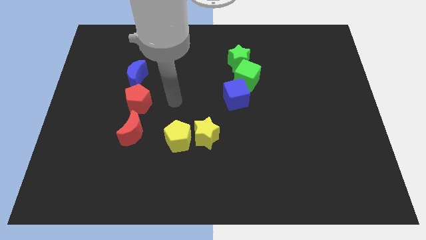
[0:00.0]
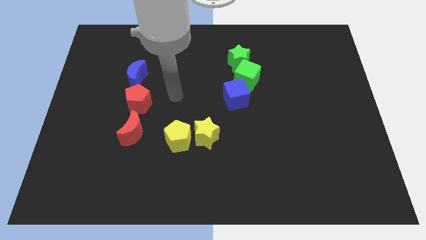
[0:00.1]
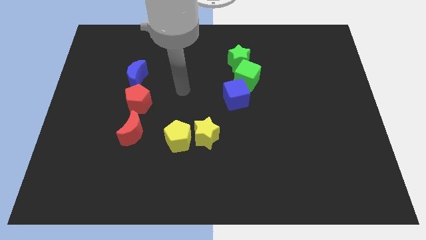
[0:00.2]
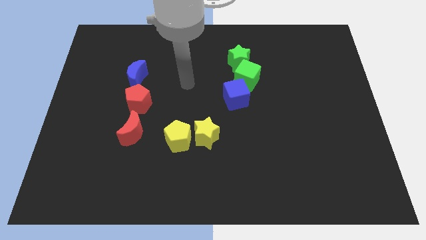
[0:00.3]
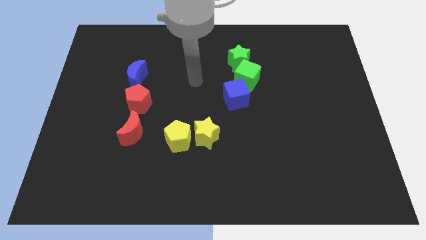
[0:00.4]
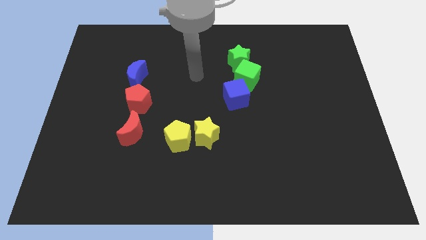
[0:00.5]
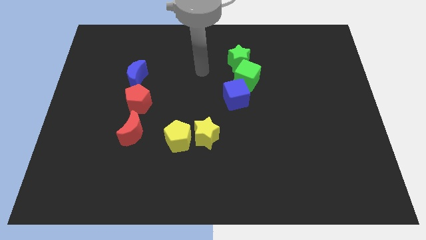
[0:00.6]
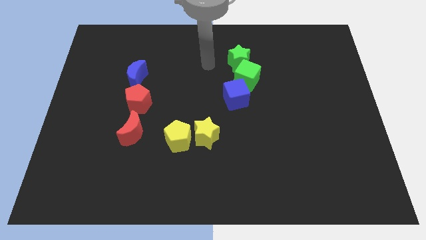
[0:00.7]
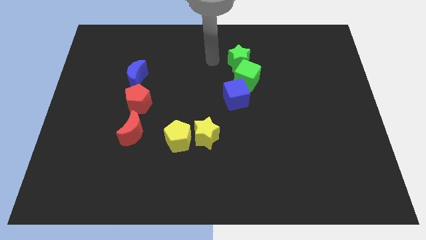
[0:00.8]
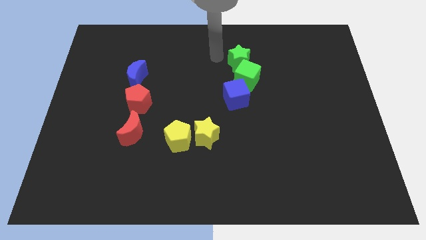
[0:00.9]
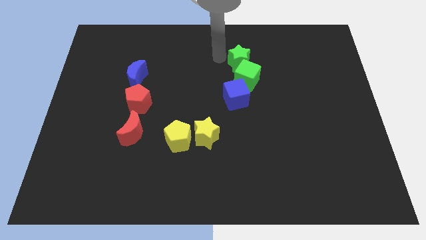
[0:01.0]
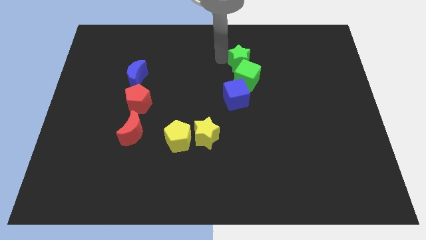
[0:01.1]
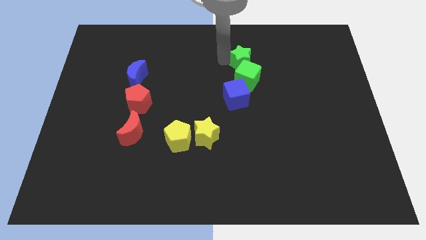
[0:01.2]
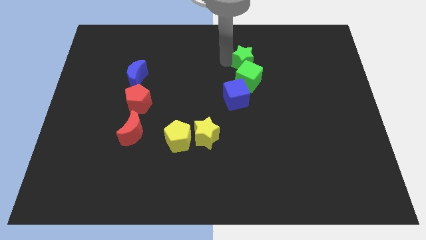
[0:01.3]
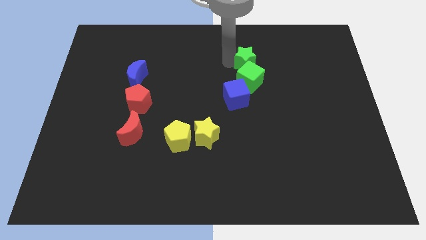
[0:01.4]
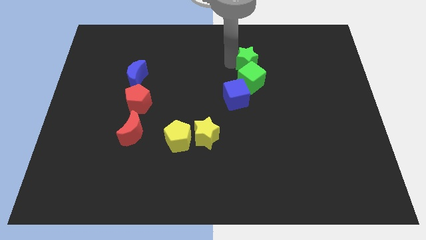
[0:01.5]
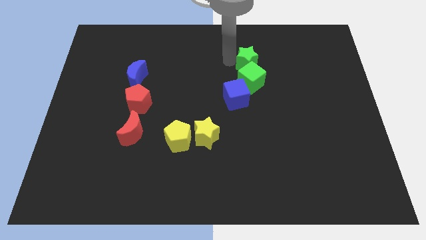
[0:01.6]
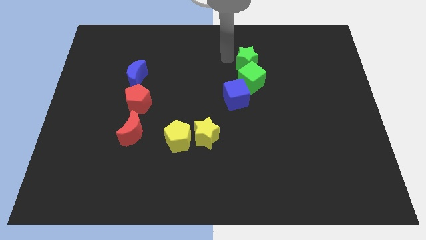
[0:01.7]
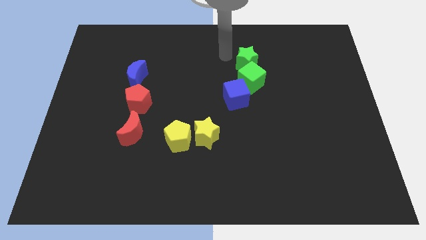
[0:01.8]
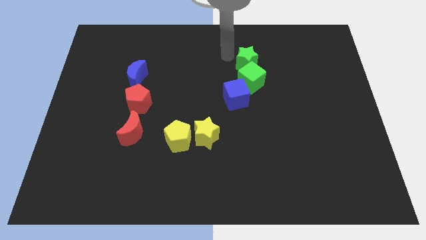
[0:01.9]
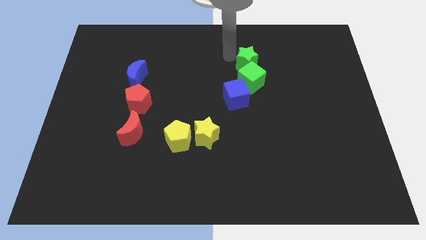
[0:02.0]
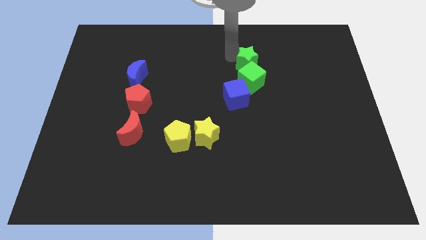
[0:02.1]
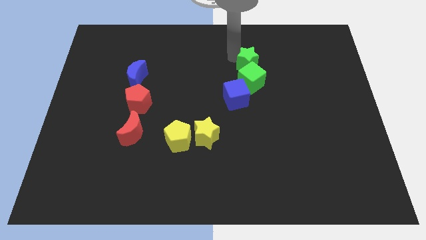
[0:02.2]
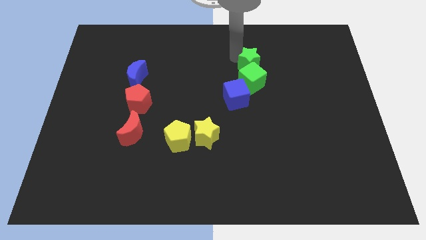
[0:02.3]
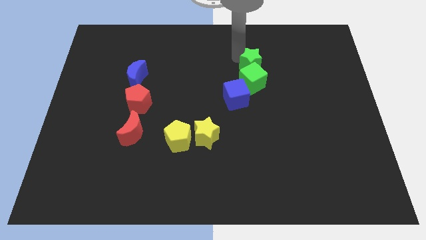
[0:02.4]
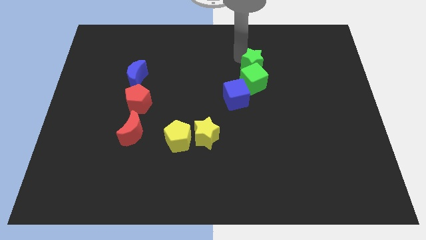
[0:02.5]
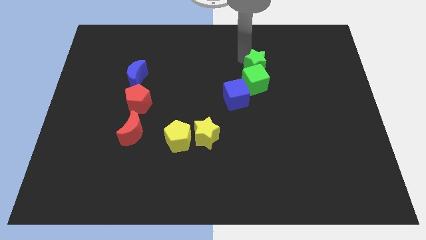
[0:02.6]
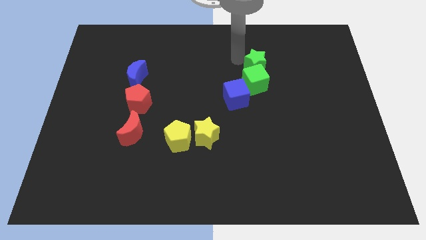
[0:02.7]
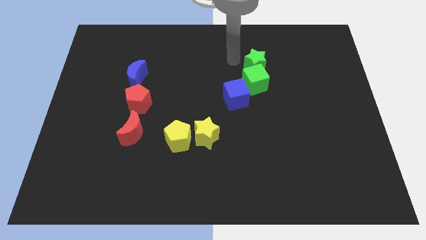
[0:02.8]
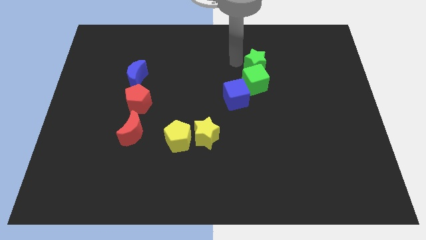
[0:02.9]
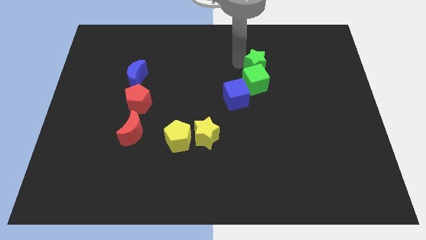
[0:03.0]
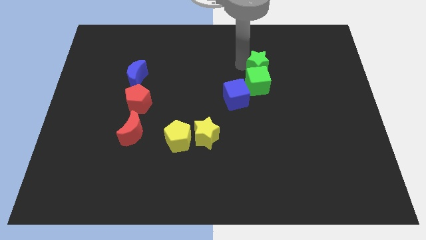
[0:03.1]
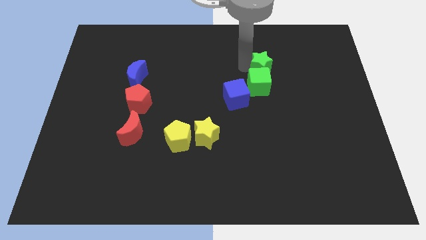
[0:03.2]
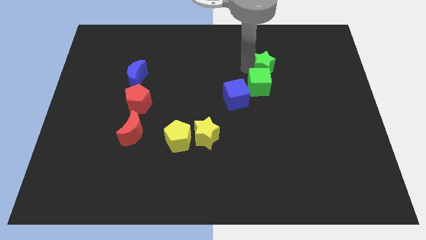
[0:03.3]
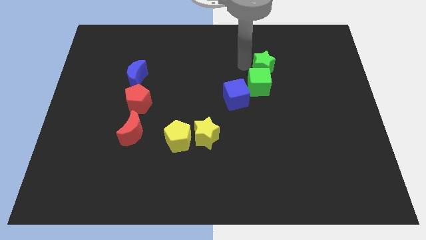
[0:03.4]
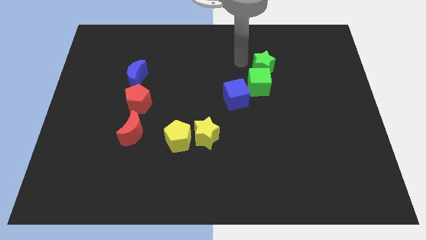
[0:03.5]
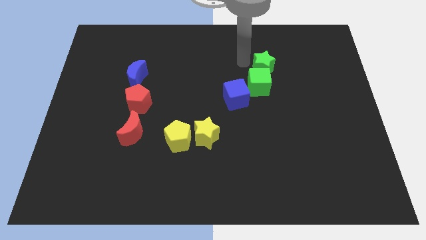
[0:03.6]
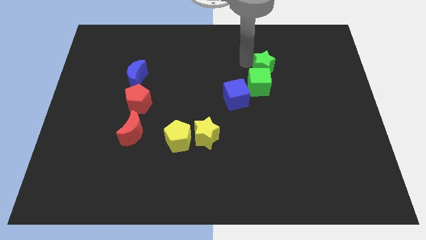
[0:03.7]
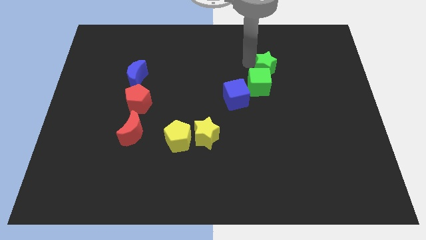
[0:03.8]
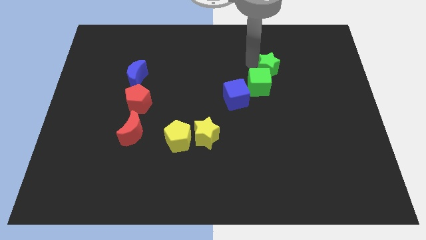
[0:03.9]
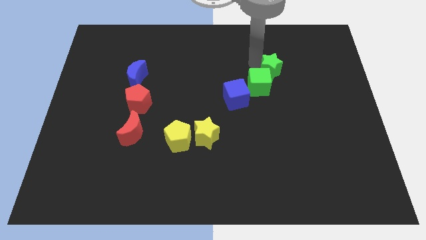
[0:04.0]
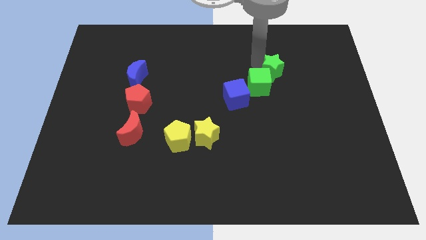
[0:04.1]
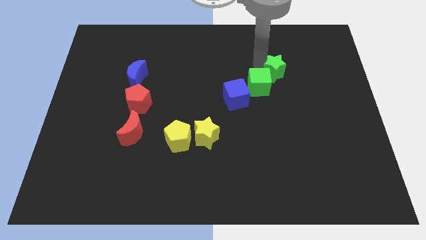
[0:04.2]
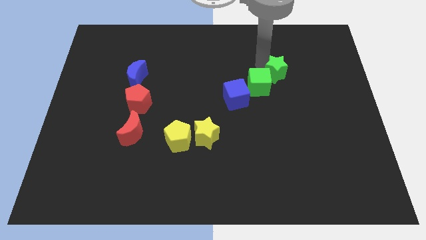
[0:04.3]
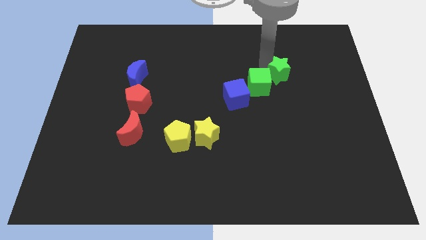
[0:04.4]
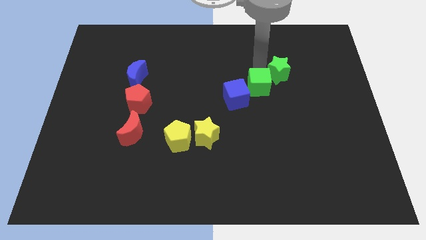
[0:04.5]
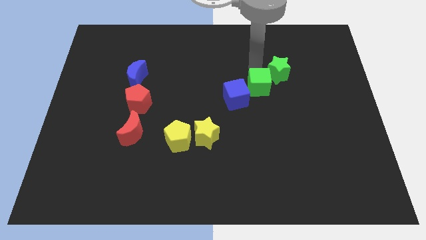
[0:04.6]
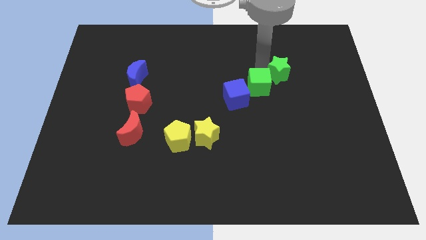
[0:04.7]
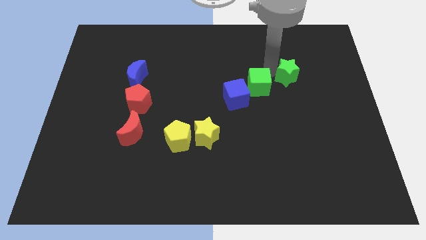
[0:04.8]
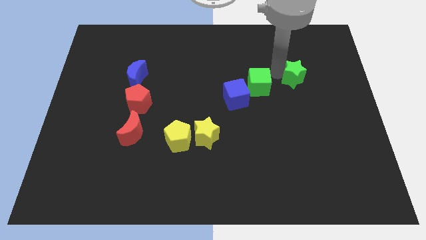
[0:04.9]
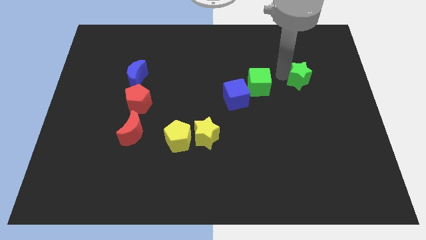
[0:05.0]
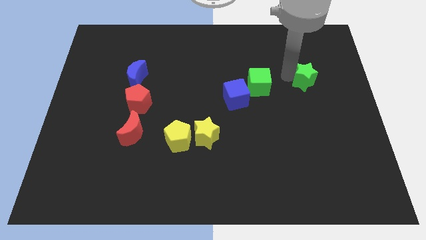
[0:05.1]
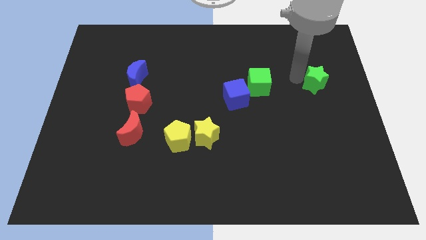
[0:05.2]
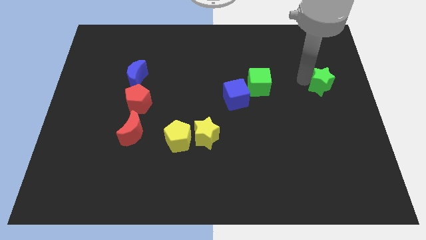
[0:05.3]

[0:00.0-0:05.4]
move the green star to the center right
